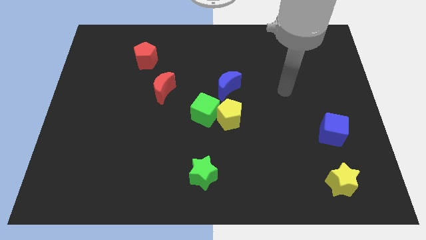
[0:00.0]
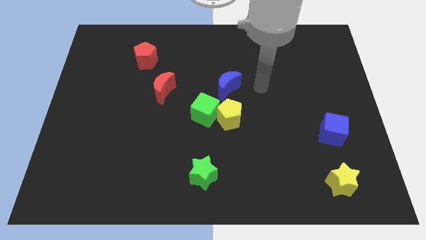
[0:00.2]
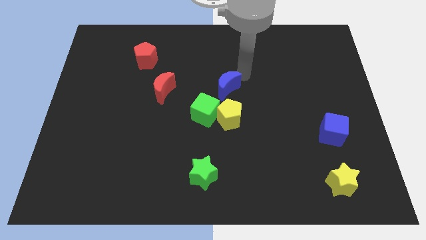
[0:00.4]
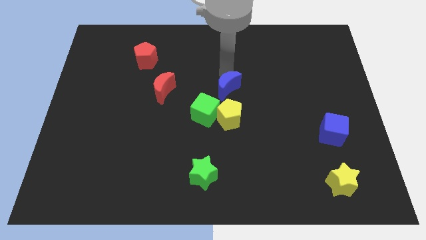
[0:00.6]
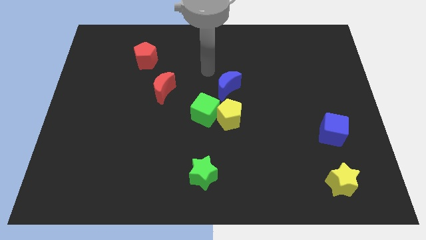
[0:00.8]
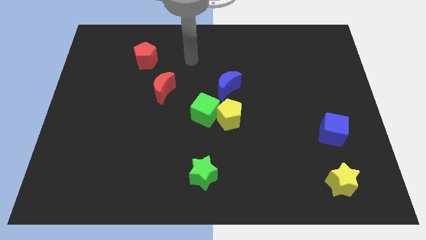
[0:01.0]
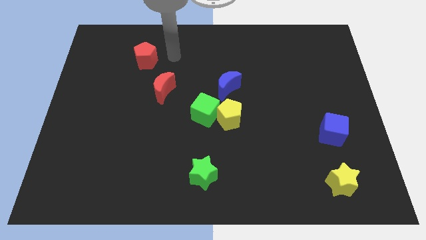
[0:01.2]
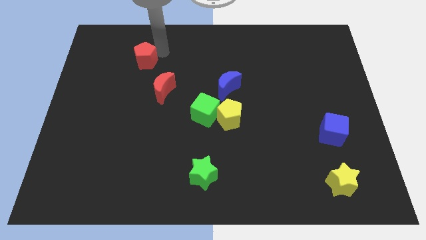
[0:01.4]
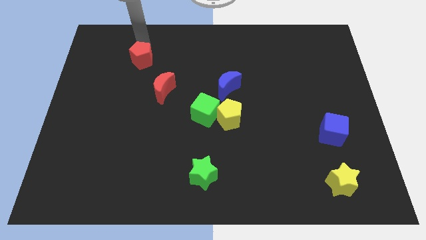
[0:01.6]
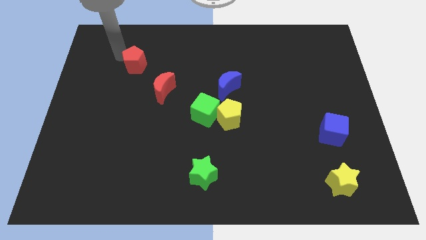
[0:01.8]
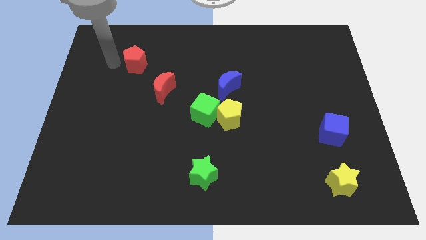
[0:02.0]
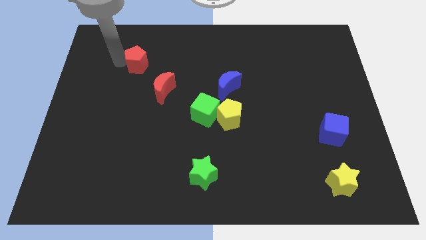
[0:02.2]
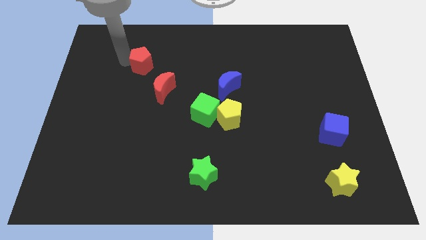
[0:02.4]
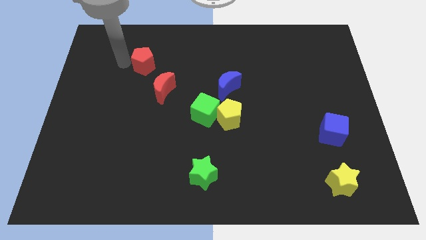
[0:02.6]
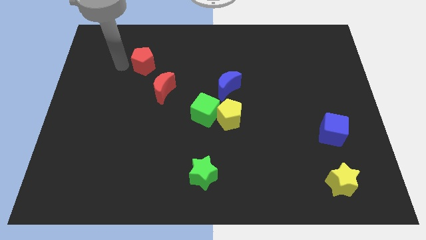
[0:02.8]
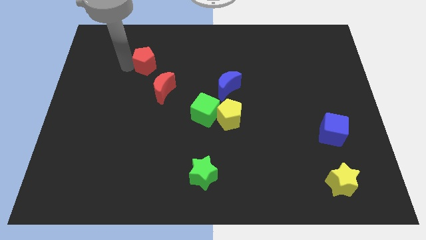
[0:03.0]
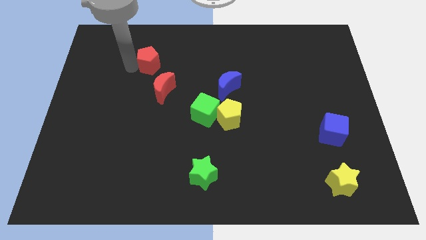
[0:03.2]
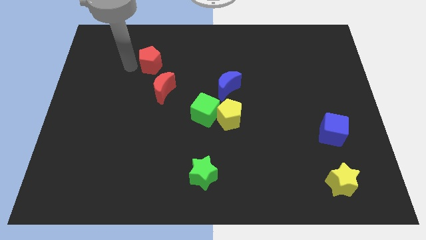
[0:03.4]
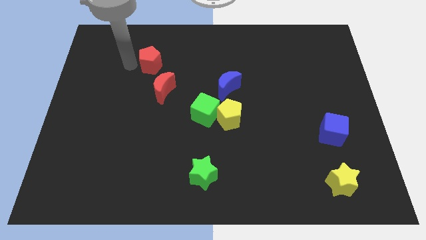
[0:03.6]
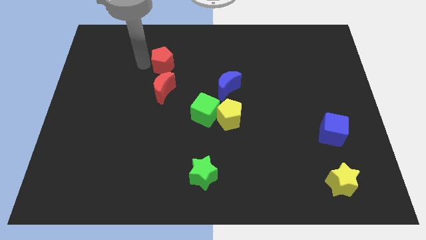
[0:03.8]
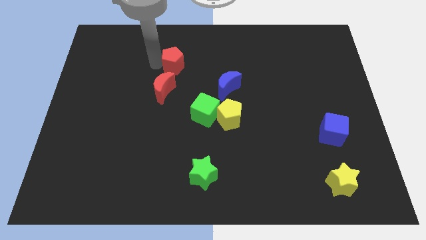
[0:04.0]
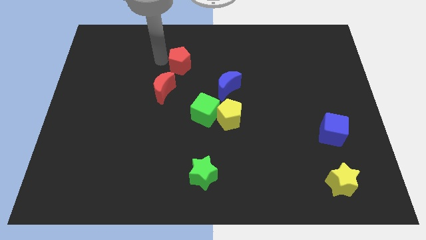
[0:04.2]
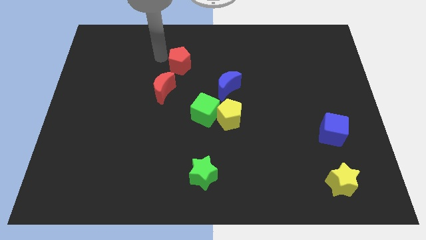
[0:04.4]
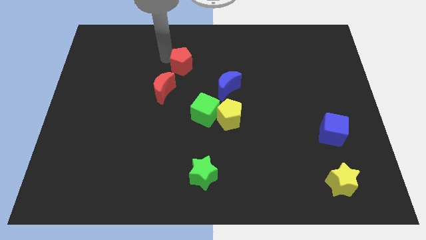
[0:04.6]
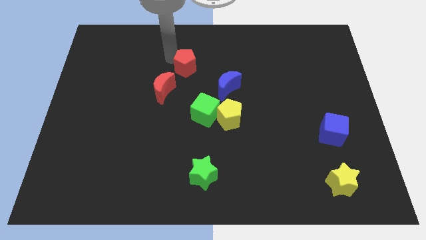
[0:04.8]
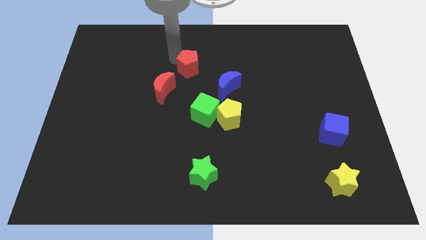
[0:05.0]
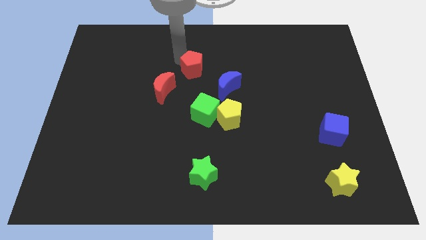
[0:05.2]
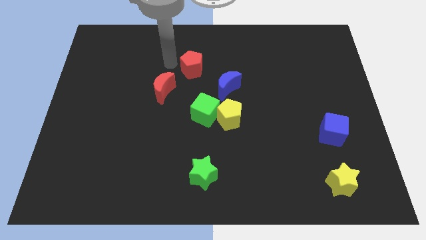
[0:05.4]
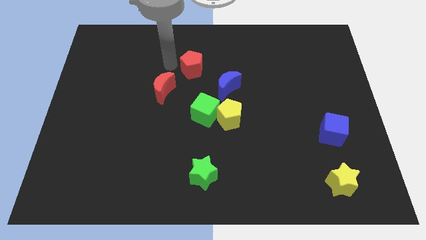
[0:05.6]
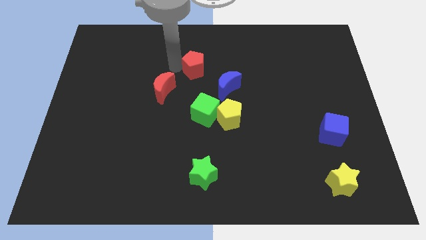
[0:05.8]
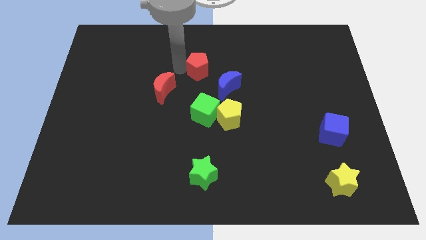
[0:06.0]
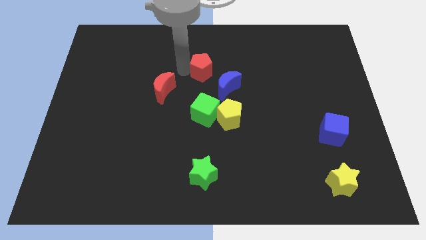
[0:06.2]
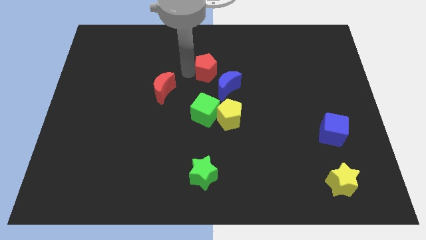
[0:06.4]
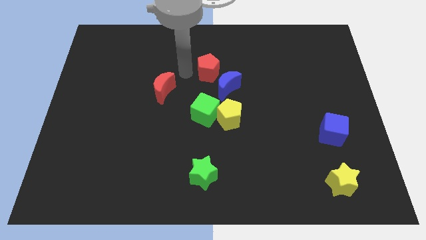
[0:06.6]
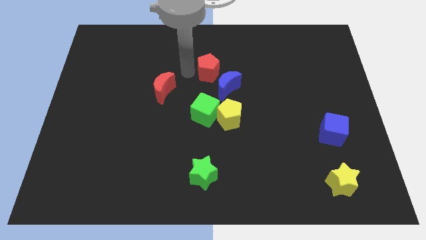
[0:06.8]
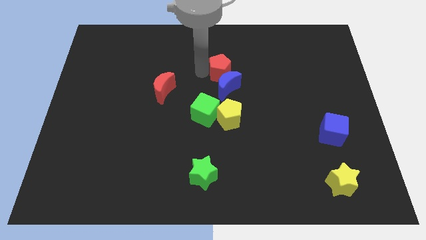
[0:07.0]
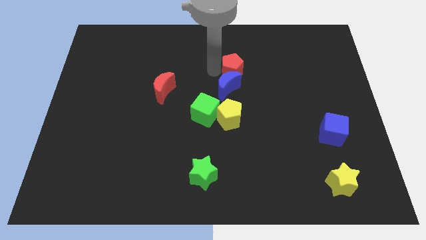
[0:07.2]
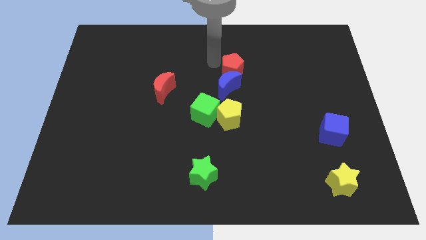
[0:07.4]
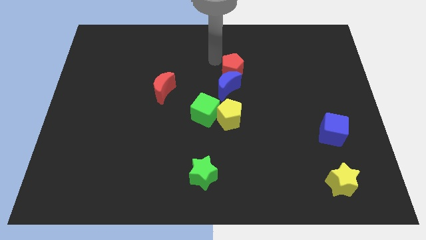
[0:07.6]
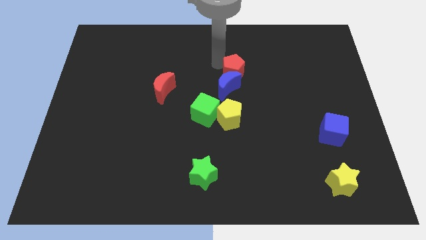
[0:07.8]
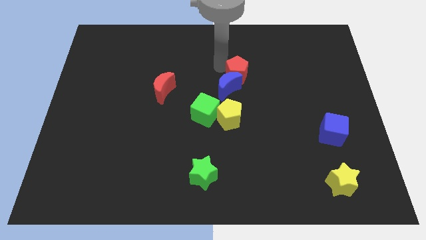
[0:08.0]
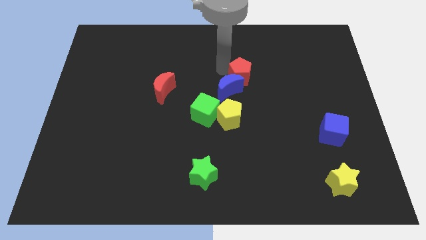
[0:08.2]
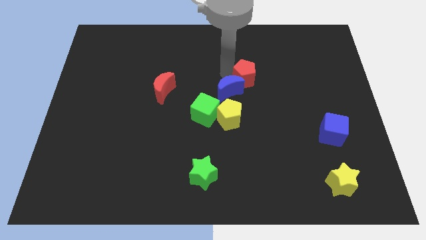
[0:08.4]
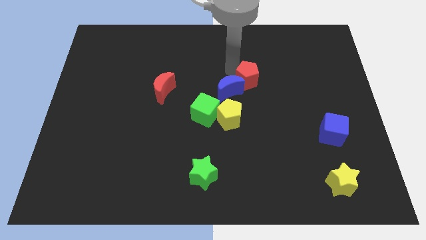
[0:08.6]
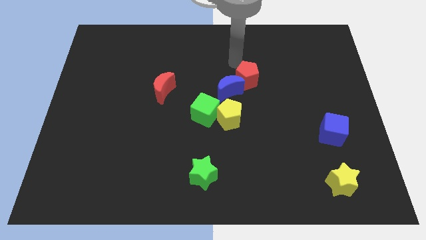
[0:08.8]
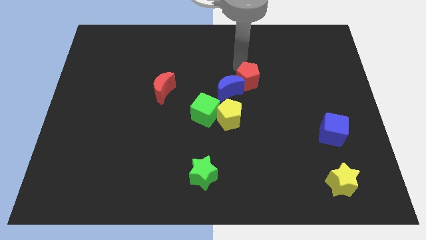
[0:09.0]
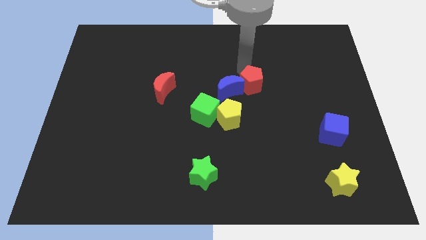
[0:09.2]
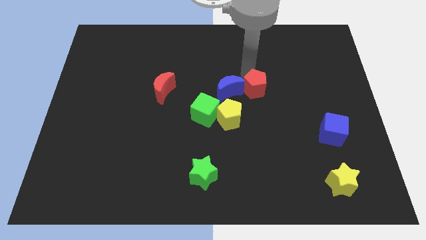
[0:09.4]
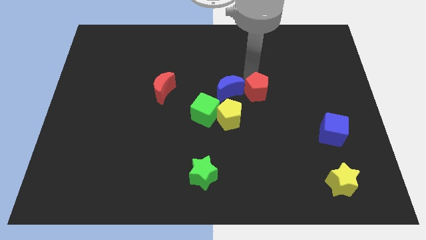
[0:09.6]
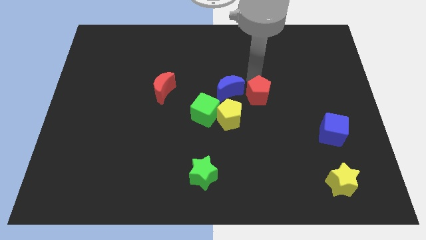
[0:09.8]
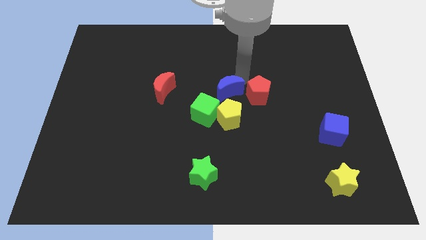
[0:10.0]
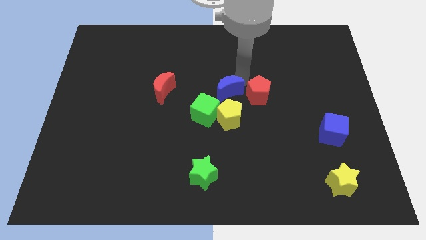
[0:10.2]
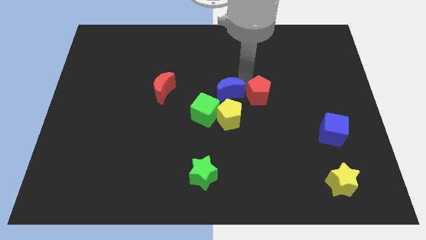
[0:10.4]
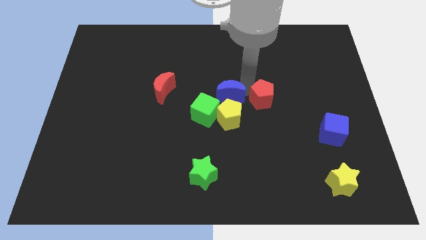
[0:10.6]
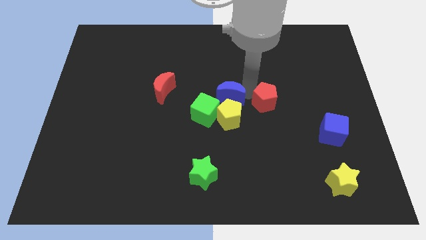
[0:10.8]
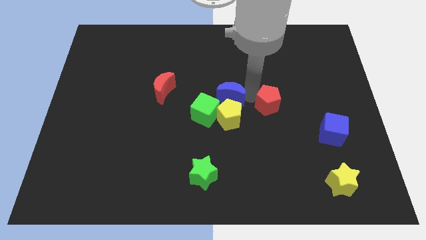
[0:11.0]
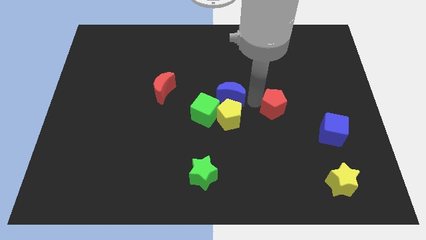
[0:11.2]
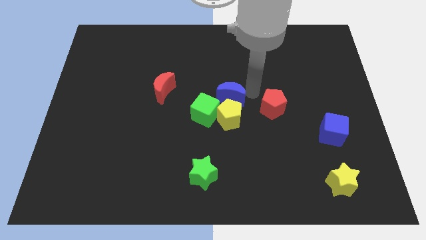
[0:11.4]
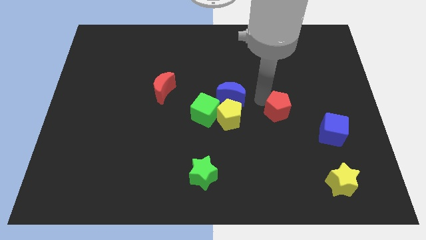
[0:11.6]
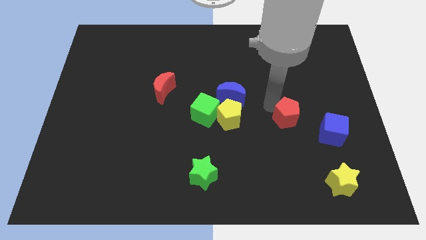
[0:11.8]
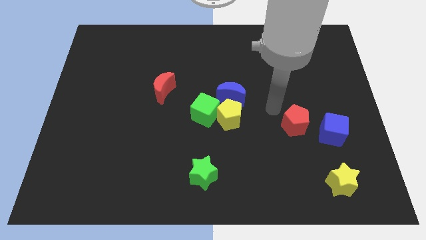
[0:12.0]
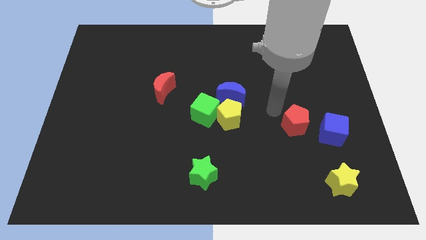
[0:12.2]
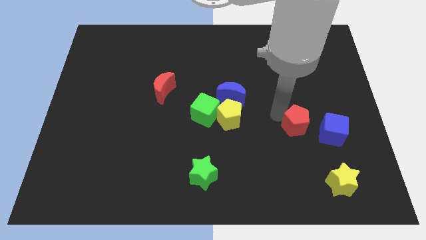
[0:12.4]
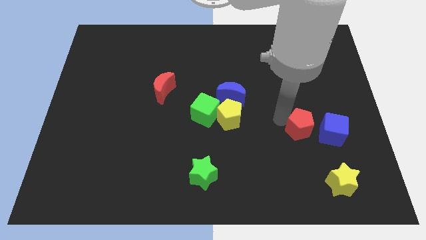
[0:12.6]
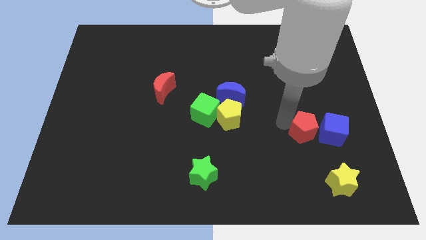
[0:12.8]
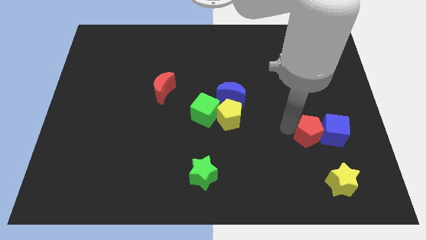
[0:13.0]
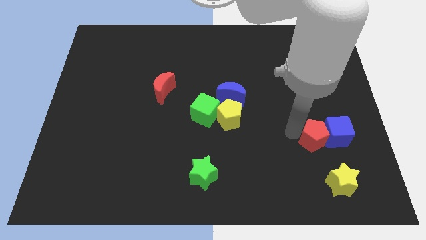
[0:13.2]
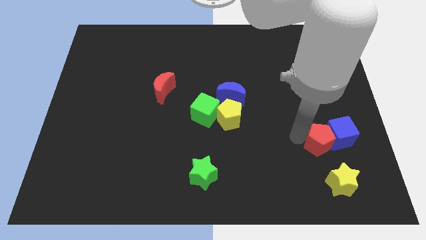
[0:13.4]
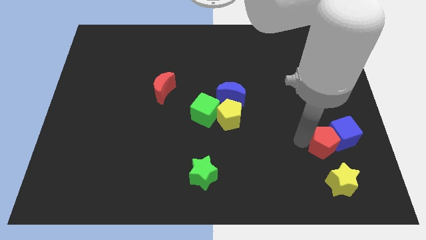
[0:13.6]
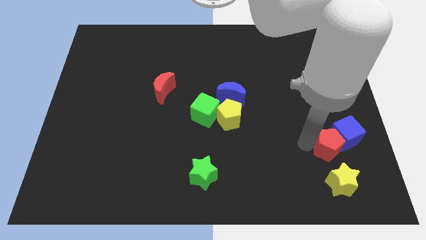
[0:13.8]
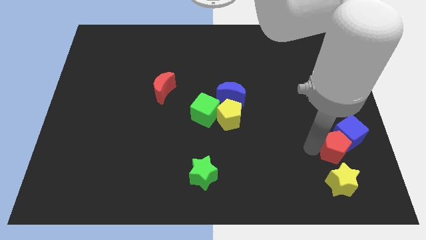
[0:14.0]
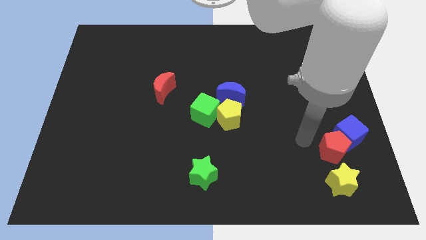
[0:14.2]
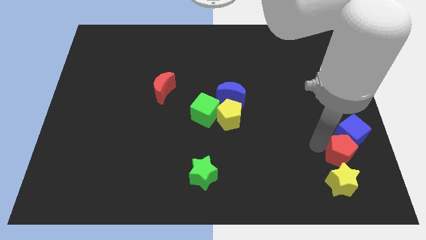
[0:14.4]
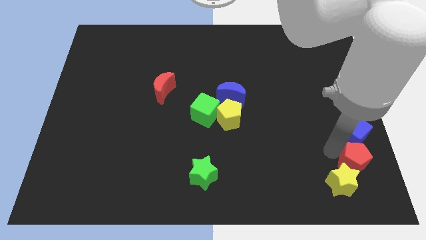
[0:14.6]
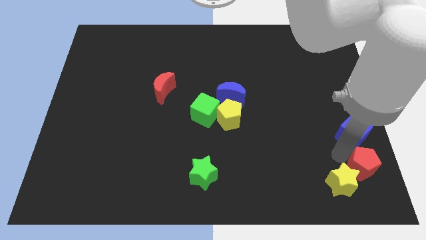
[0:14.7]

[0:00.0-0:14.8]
move the red pentagon to the bottom right of the board
